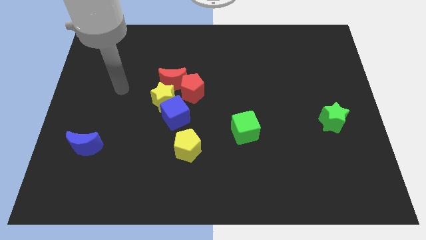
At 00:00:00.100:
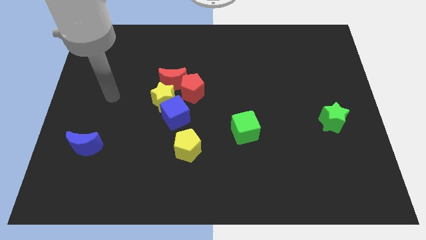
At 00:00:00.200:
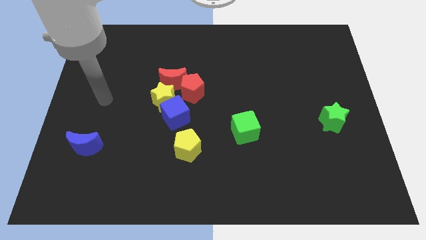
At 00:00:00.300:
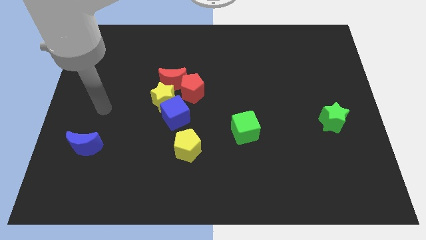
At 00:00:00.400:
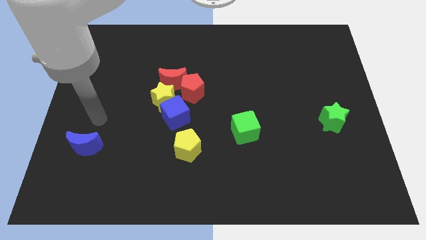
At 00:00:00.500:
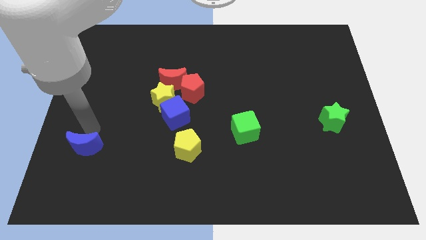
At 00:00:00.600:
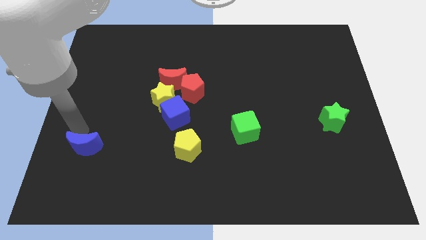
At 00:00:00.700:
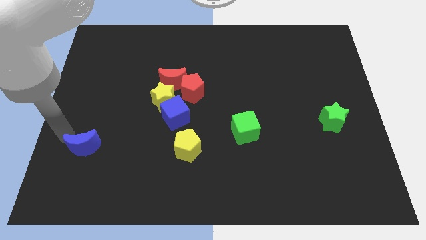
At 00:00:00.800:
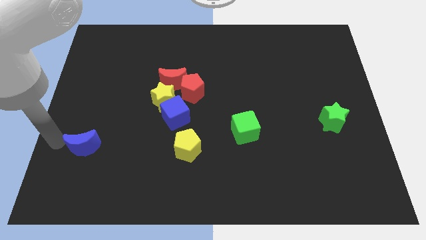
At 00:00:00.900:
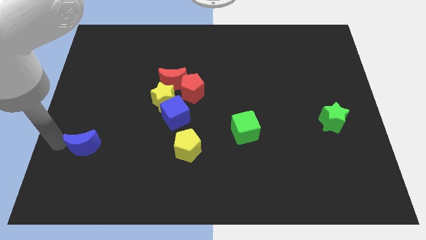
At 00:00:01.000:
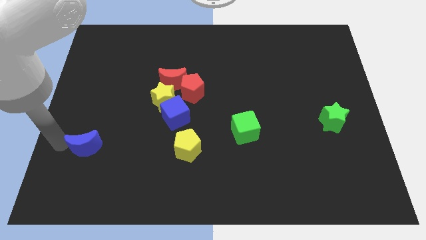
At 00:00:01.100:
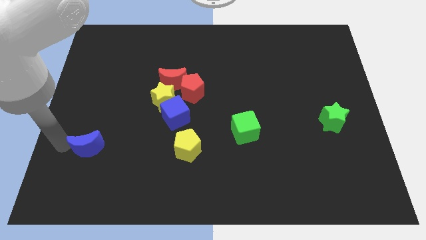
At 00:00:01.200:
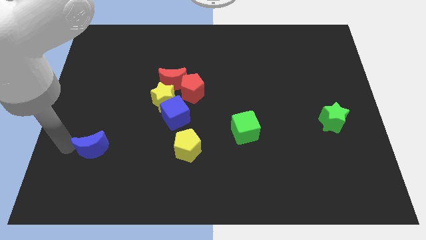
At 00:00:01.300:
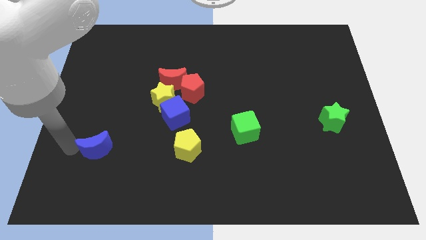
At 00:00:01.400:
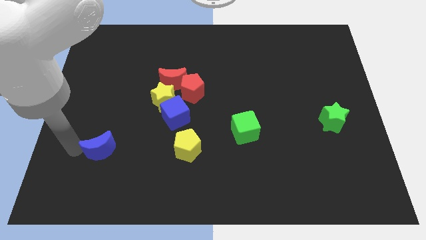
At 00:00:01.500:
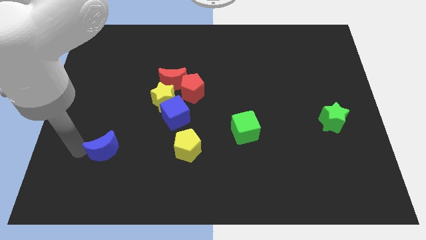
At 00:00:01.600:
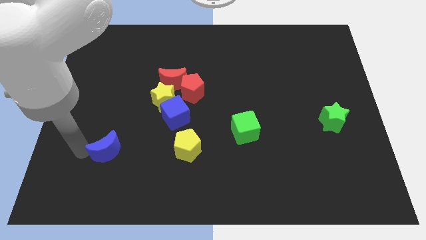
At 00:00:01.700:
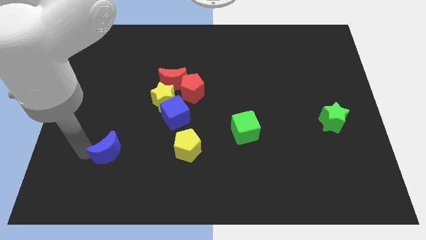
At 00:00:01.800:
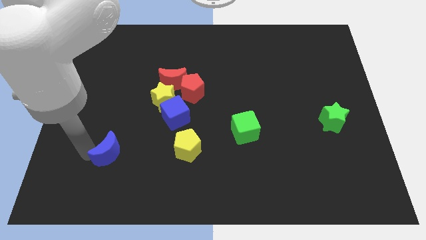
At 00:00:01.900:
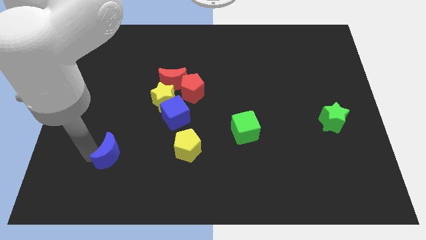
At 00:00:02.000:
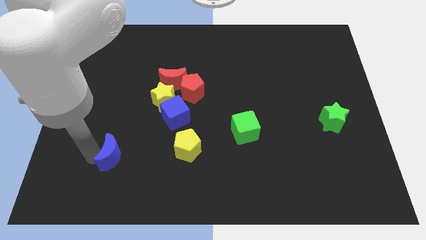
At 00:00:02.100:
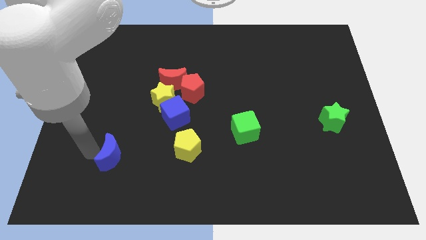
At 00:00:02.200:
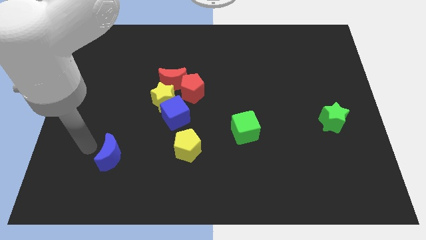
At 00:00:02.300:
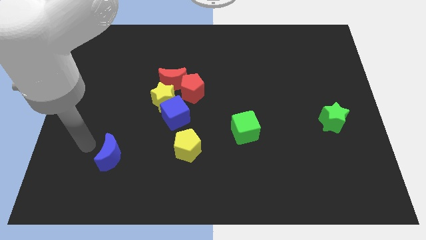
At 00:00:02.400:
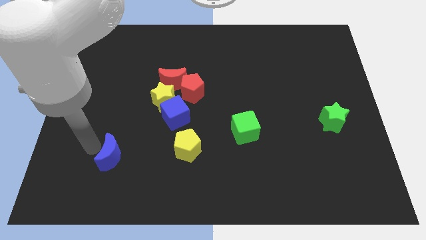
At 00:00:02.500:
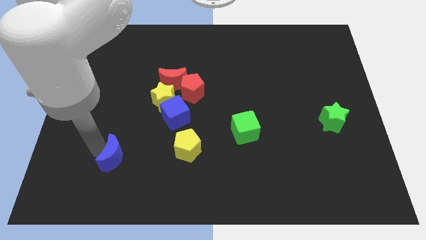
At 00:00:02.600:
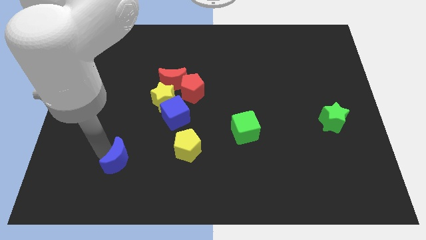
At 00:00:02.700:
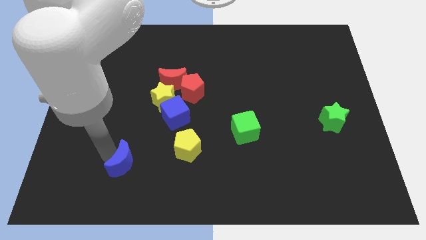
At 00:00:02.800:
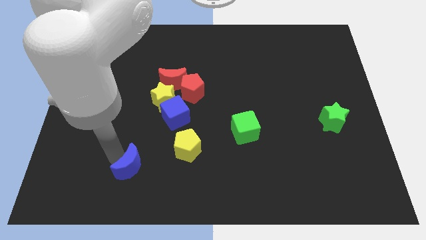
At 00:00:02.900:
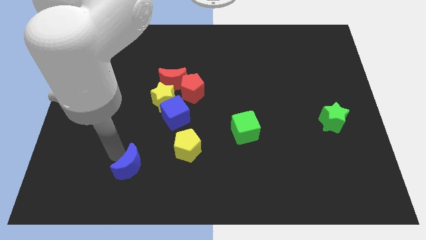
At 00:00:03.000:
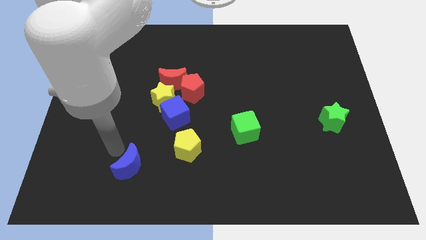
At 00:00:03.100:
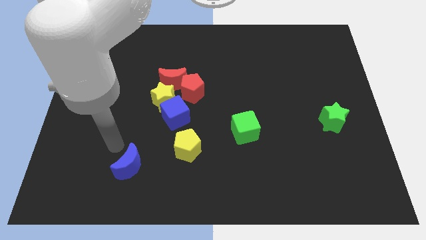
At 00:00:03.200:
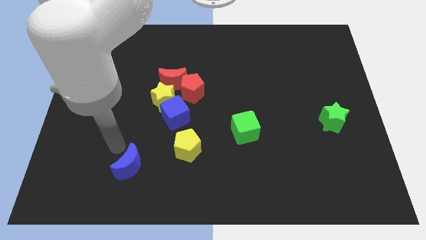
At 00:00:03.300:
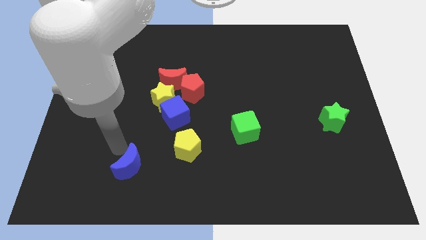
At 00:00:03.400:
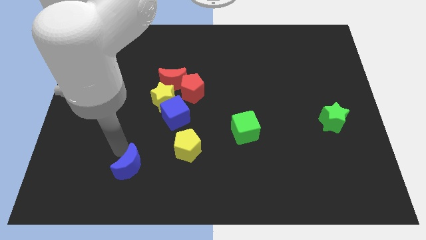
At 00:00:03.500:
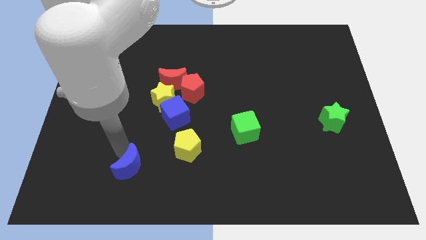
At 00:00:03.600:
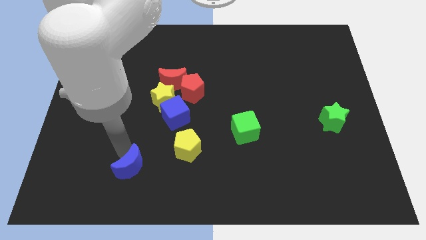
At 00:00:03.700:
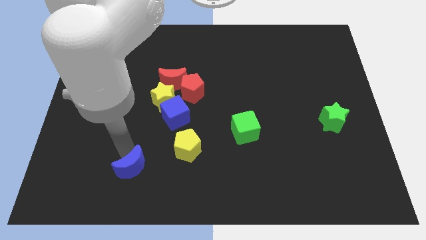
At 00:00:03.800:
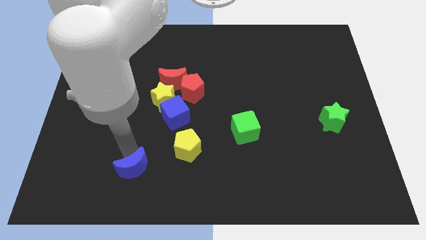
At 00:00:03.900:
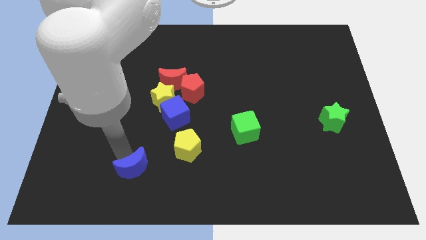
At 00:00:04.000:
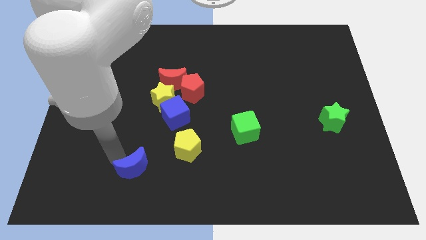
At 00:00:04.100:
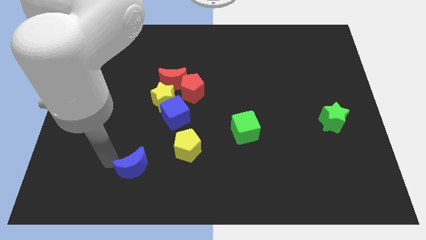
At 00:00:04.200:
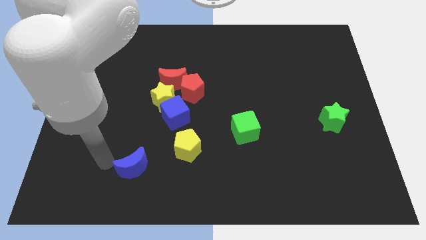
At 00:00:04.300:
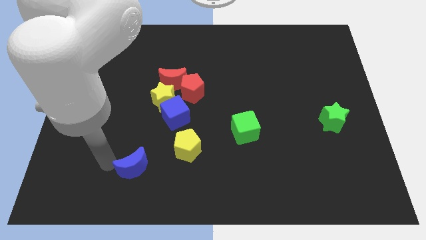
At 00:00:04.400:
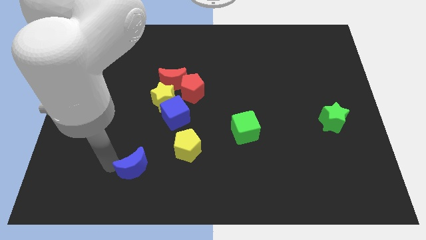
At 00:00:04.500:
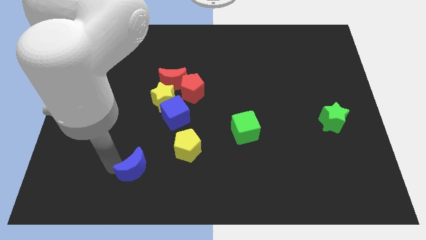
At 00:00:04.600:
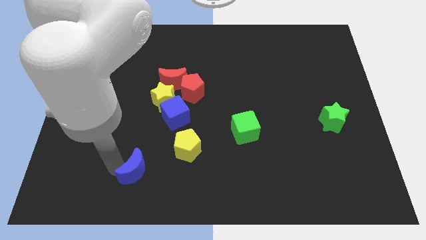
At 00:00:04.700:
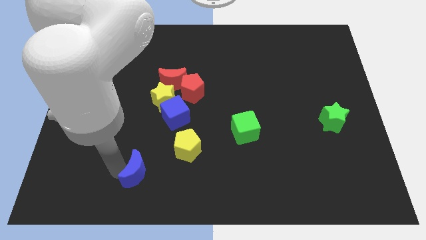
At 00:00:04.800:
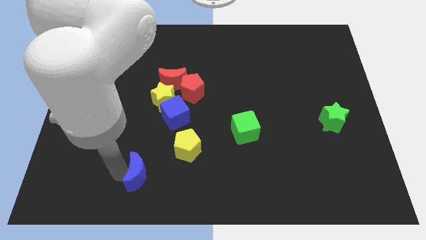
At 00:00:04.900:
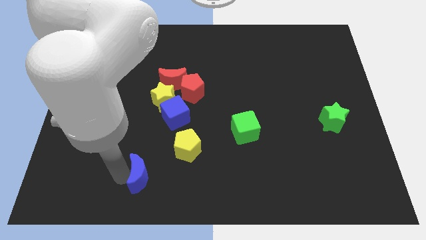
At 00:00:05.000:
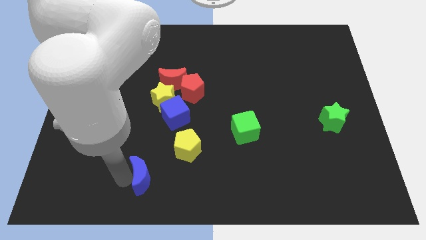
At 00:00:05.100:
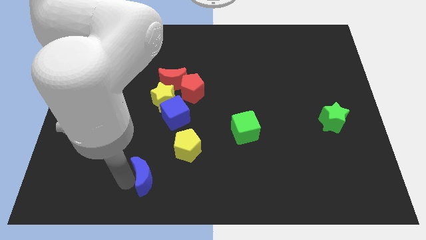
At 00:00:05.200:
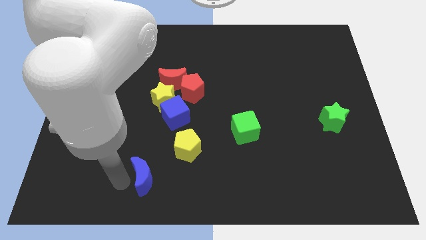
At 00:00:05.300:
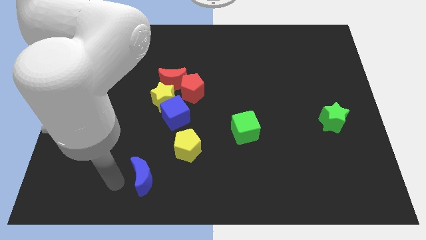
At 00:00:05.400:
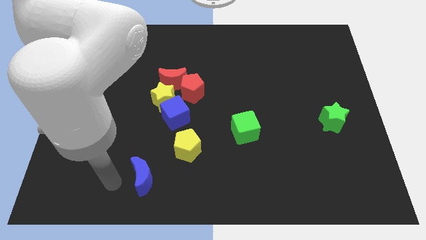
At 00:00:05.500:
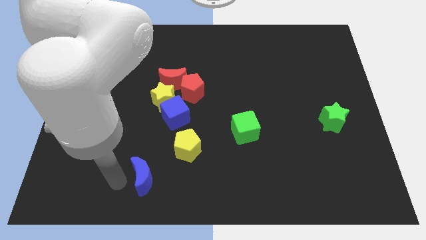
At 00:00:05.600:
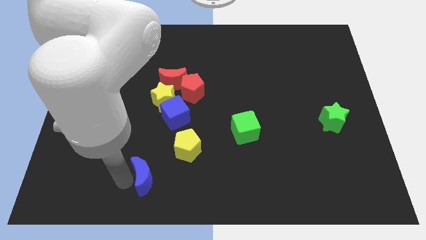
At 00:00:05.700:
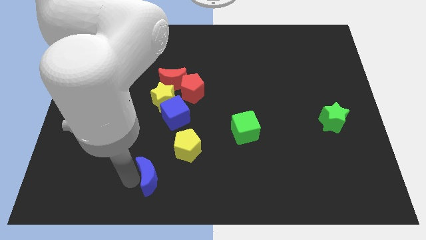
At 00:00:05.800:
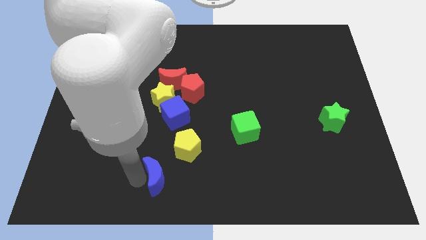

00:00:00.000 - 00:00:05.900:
push the blue moon to the bottom

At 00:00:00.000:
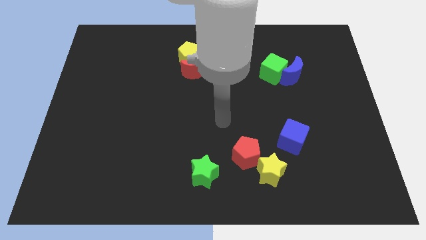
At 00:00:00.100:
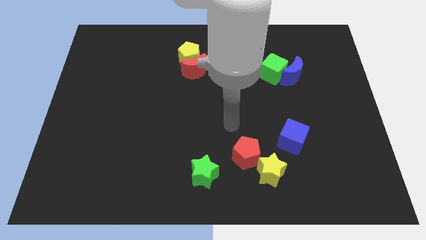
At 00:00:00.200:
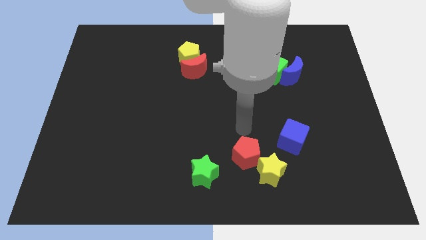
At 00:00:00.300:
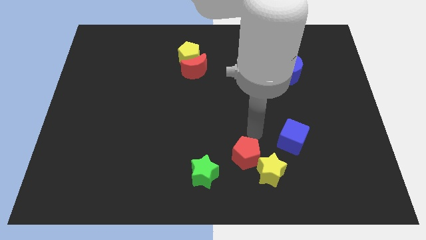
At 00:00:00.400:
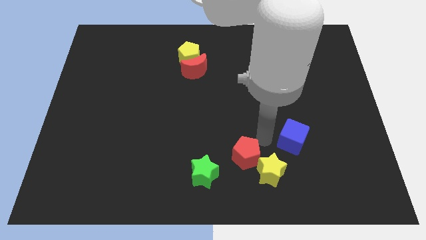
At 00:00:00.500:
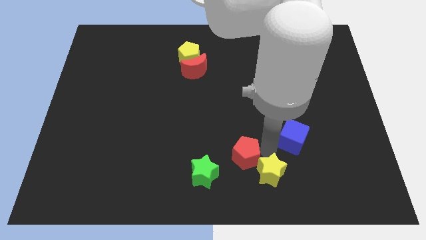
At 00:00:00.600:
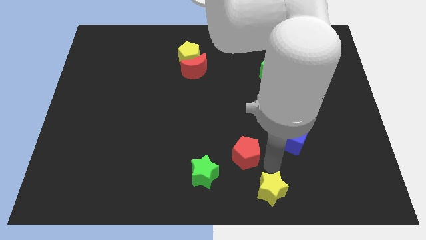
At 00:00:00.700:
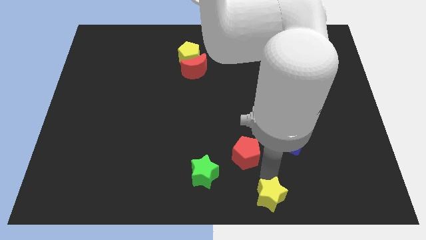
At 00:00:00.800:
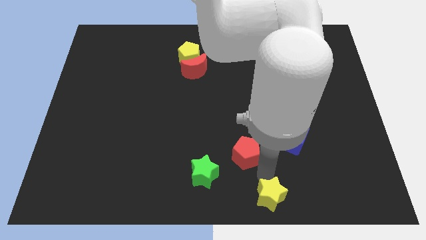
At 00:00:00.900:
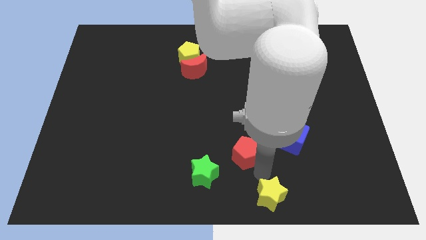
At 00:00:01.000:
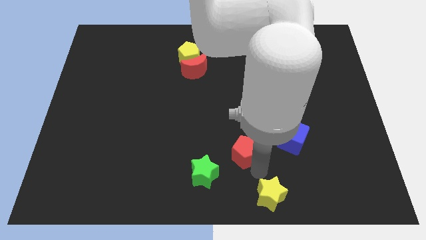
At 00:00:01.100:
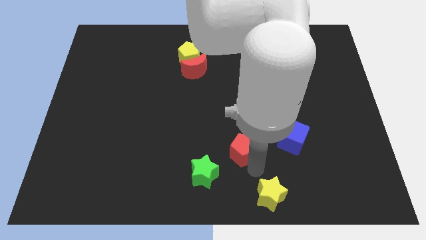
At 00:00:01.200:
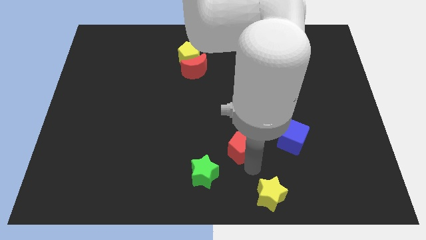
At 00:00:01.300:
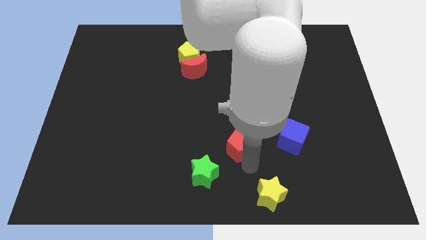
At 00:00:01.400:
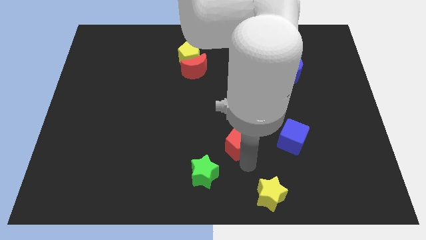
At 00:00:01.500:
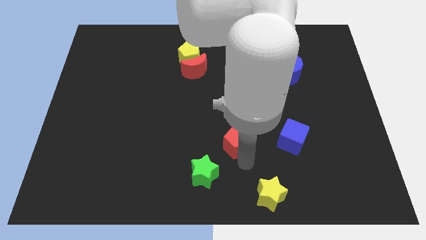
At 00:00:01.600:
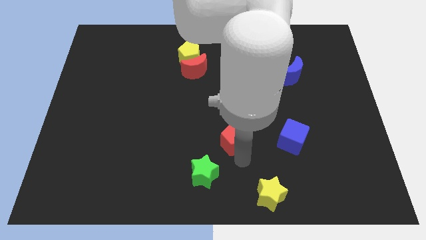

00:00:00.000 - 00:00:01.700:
put the red pentagon to the center of the board
